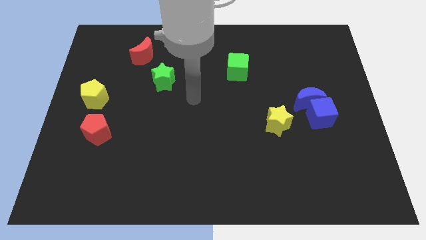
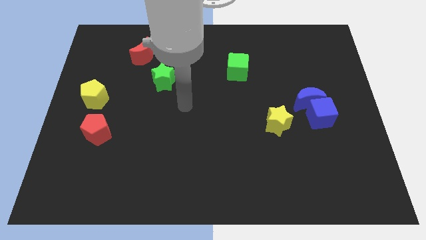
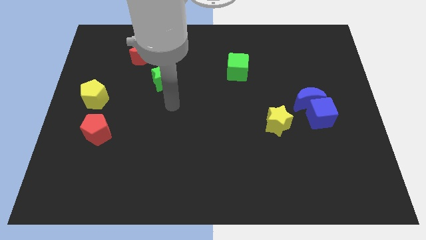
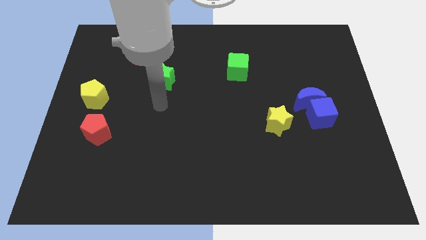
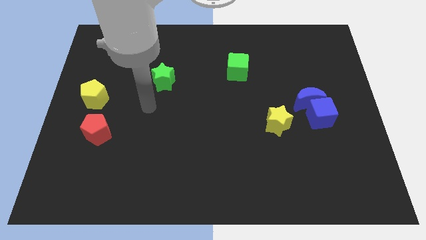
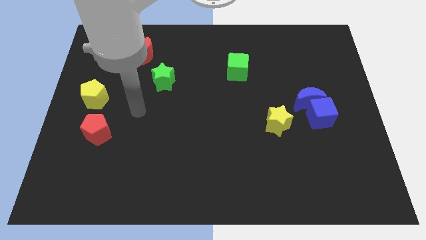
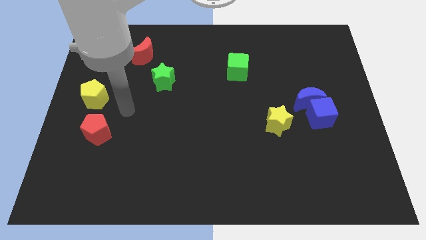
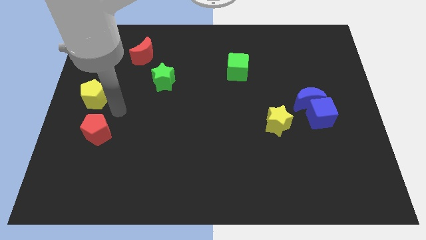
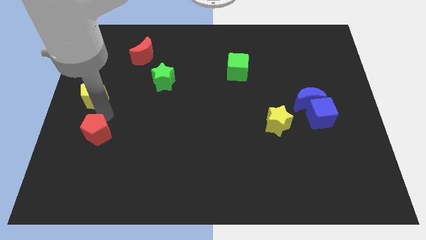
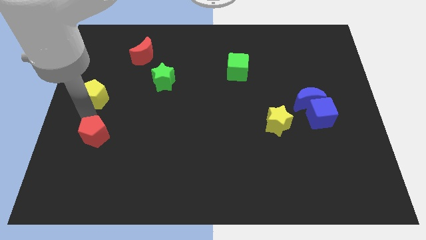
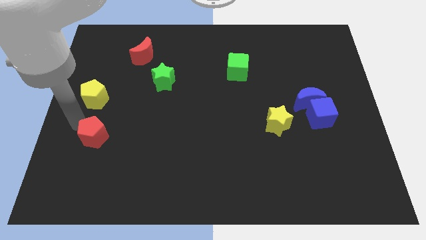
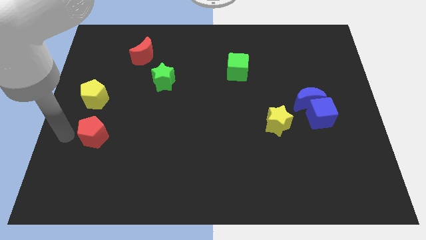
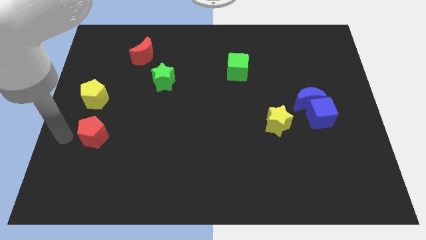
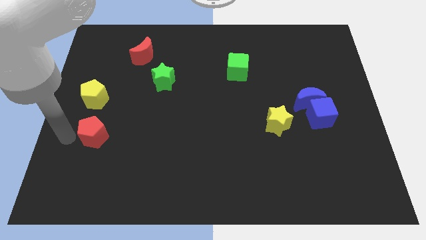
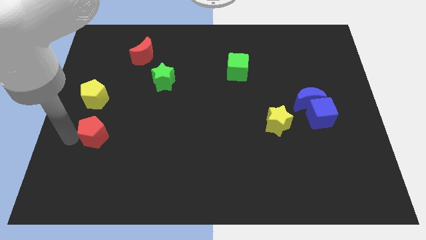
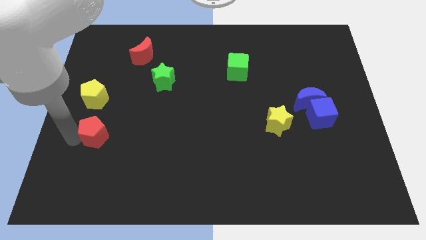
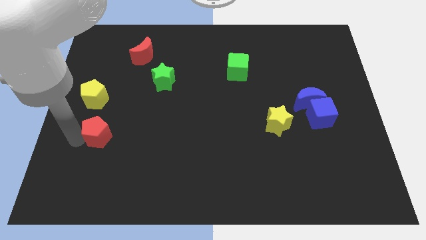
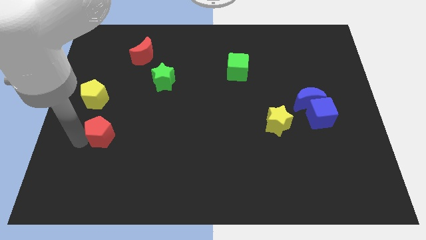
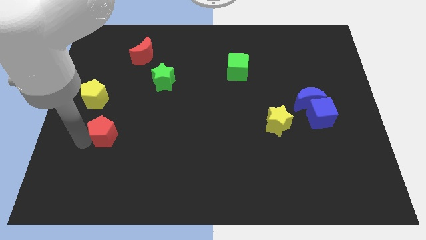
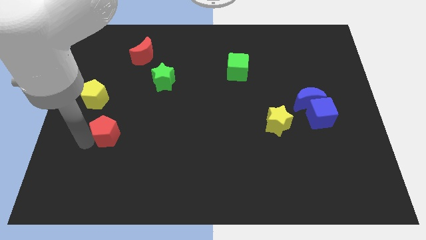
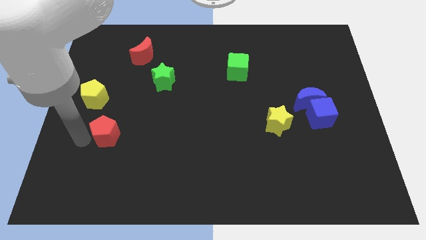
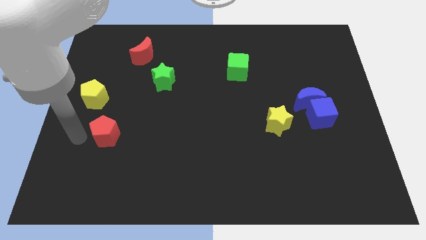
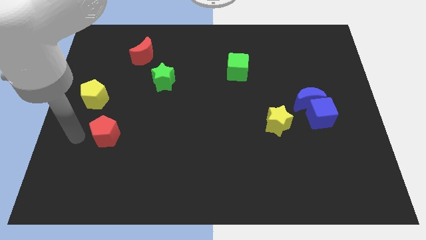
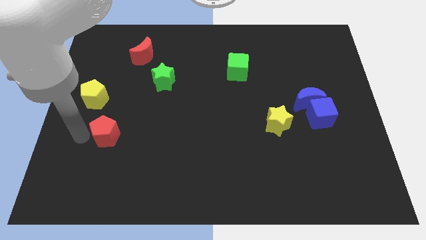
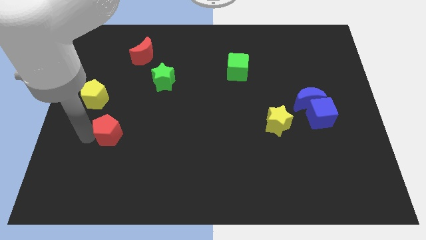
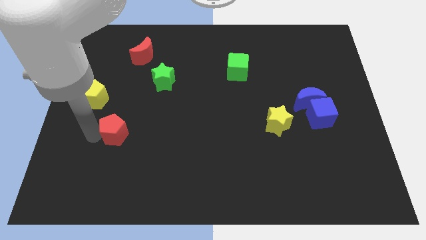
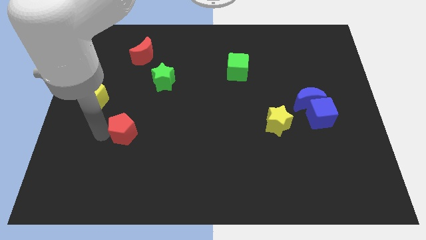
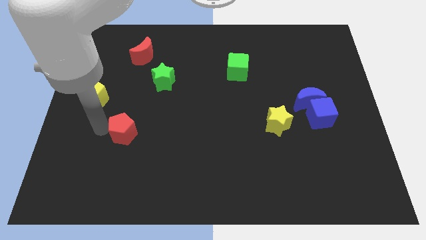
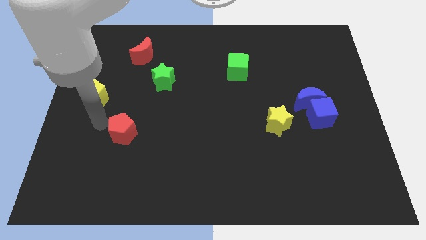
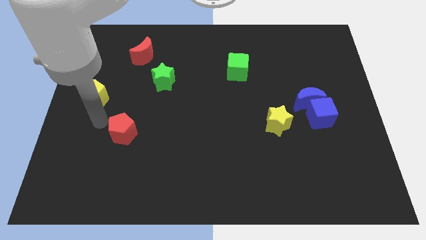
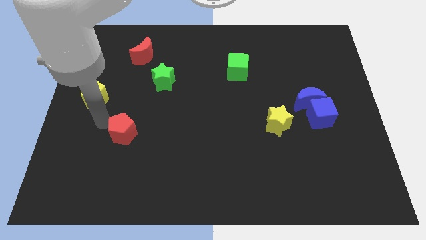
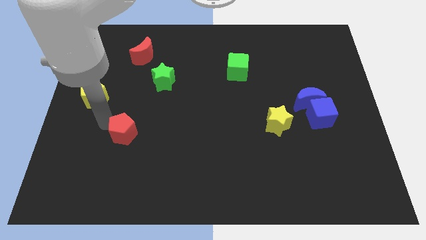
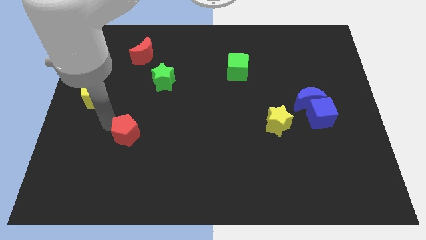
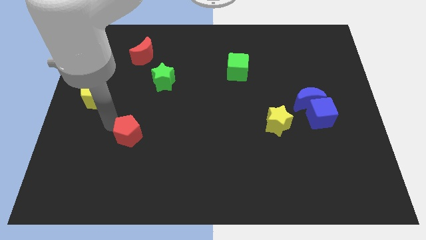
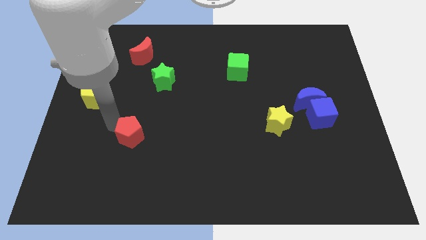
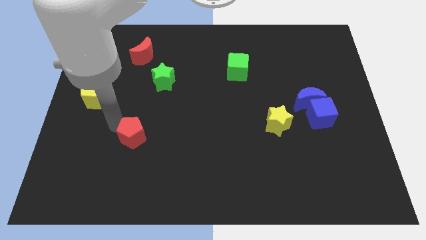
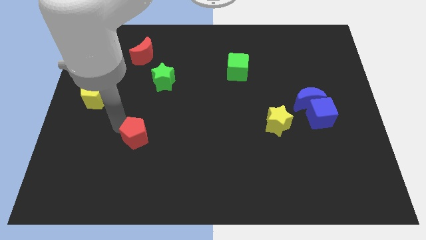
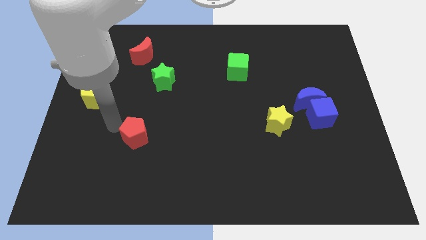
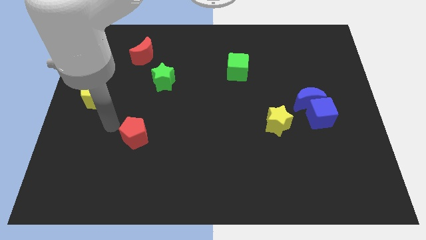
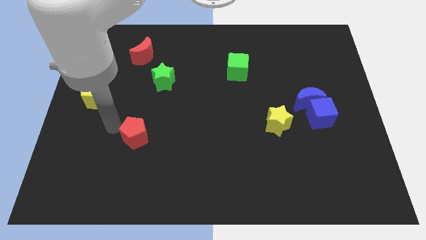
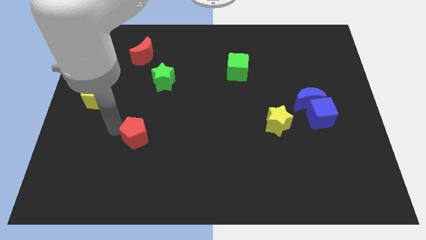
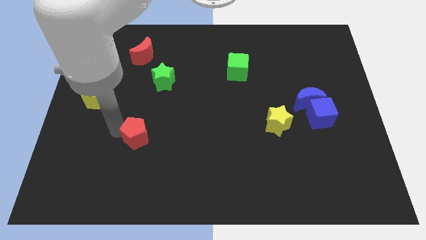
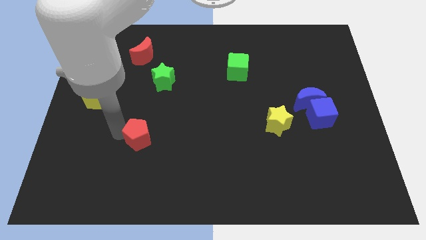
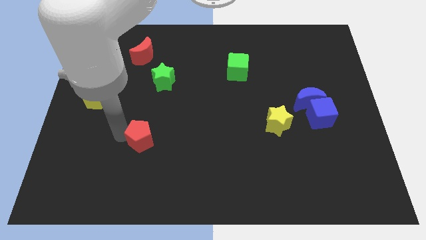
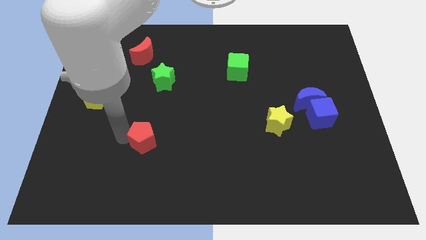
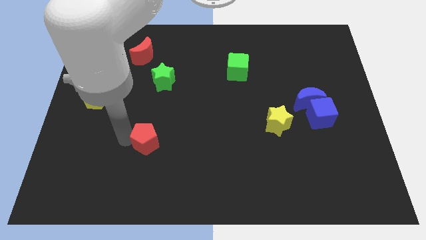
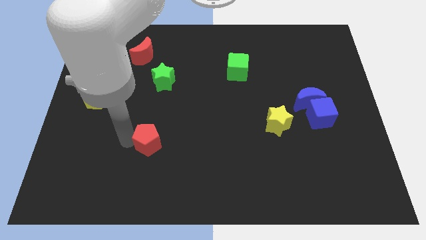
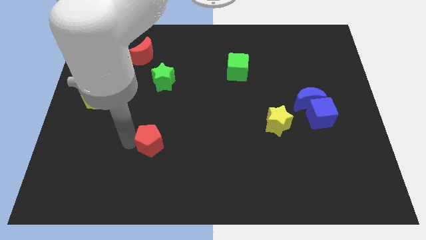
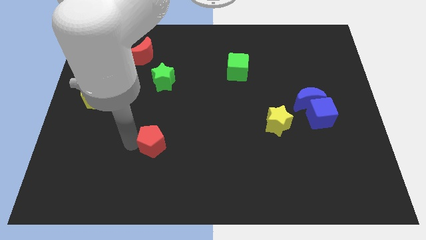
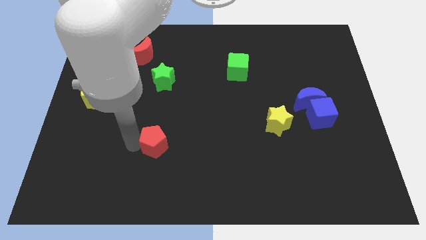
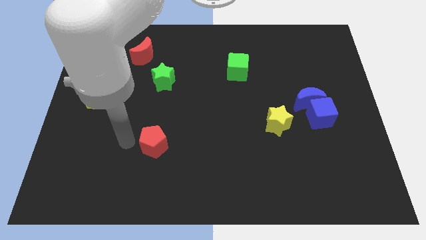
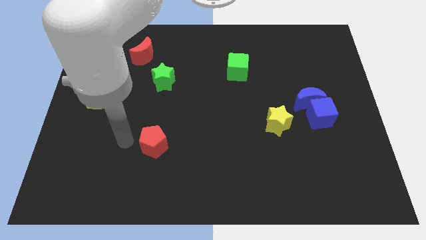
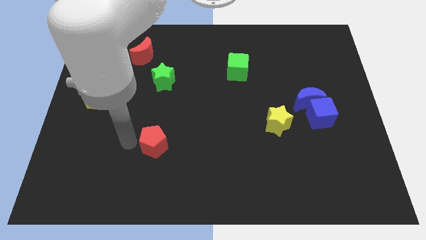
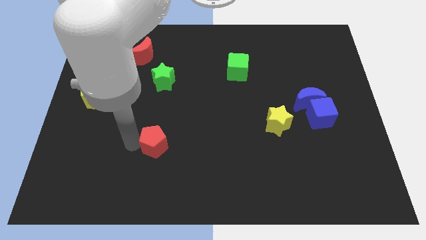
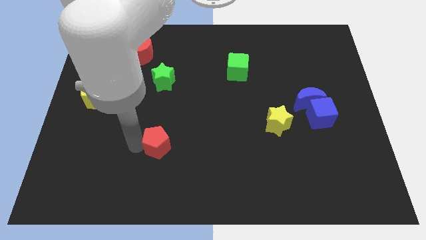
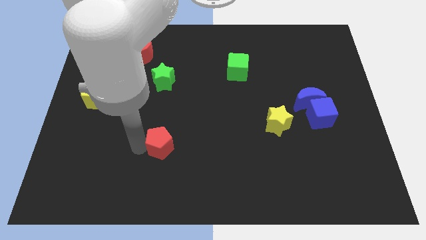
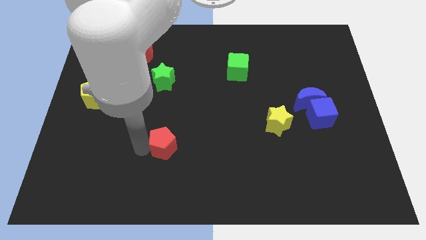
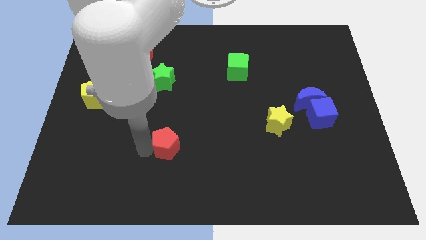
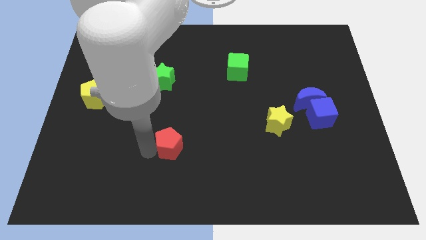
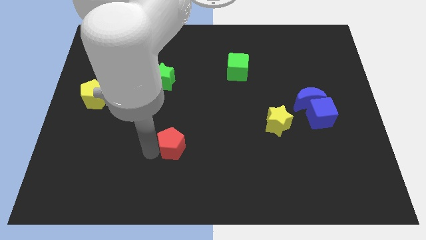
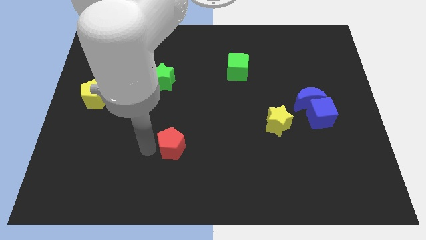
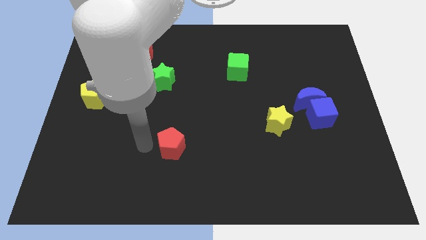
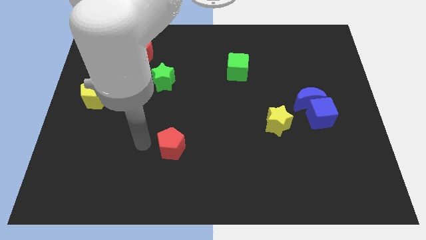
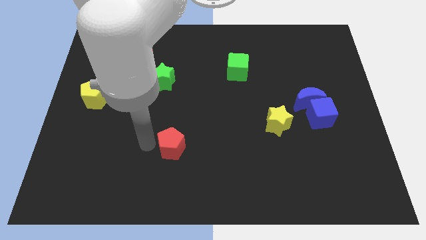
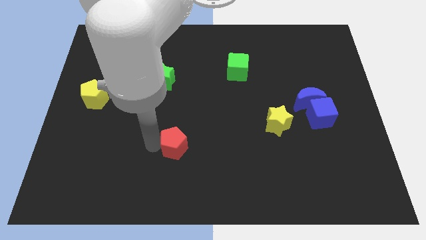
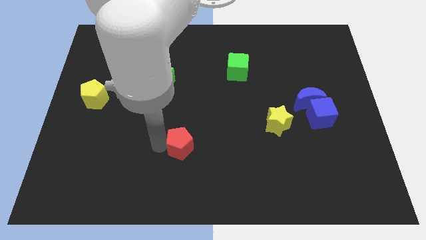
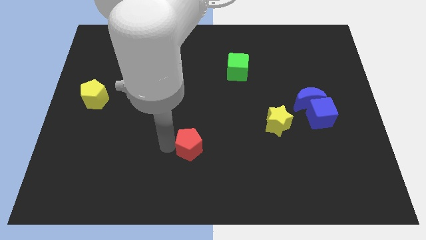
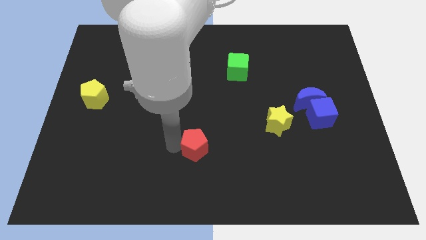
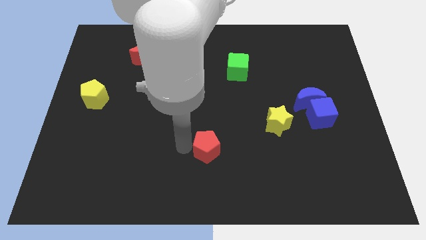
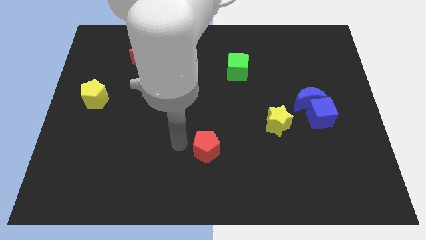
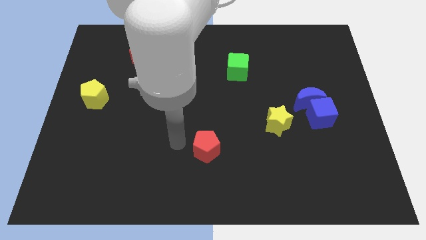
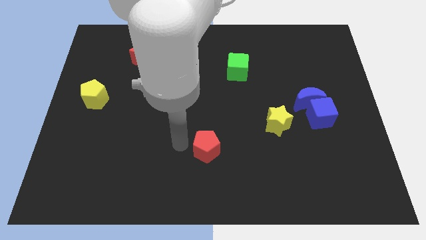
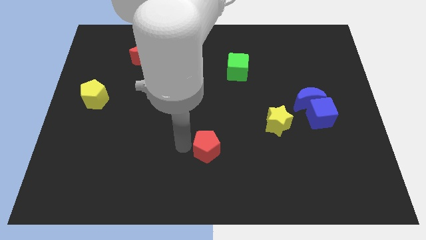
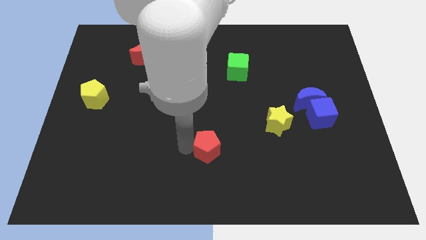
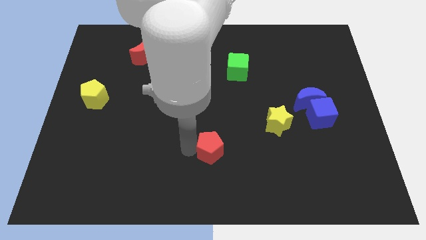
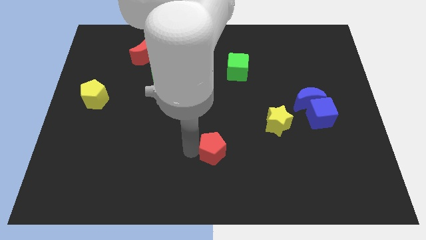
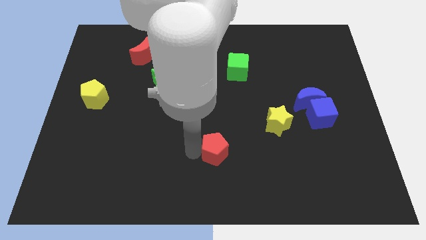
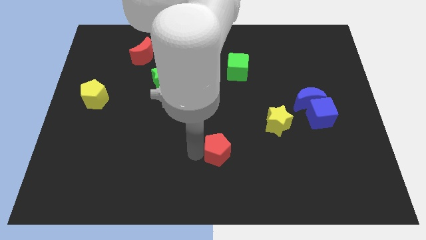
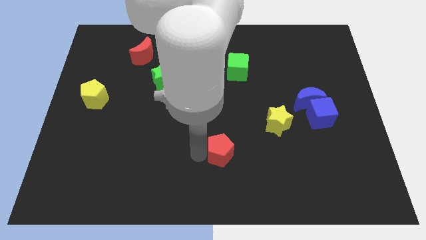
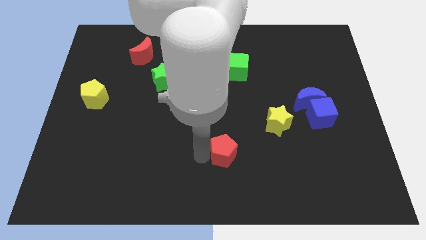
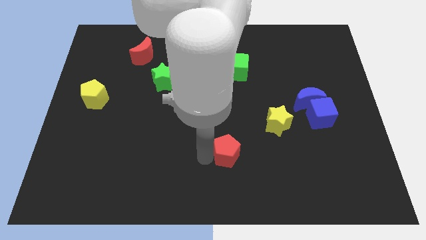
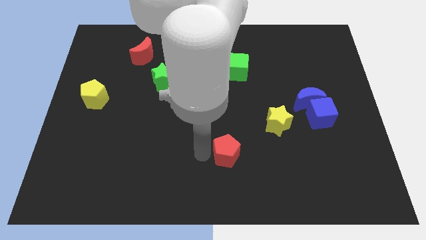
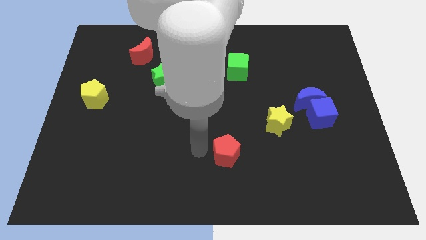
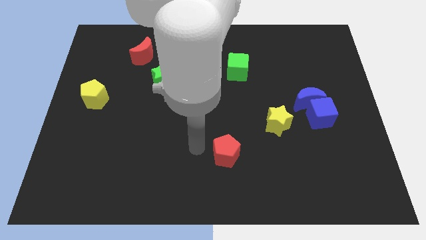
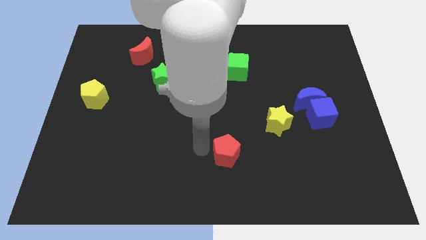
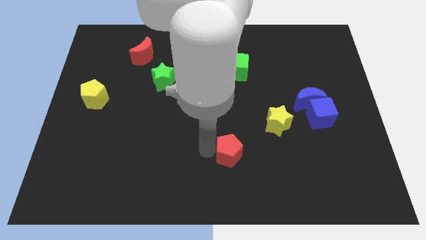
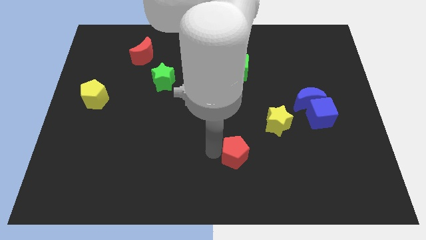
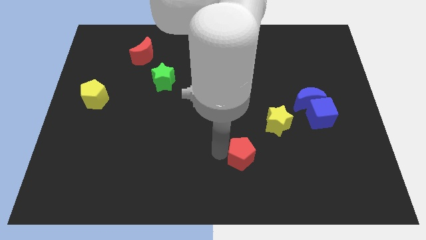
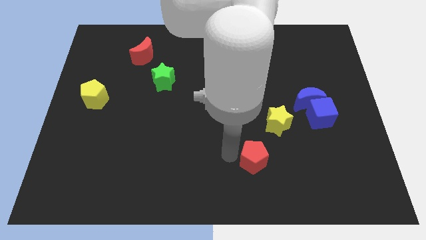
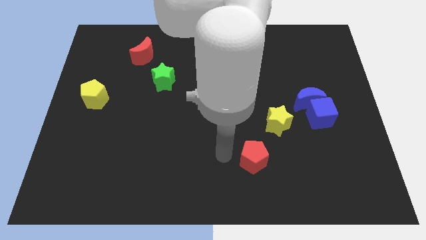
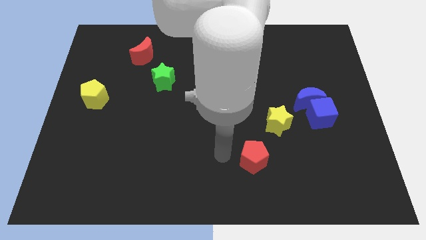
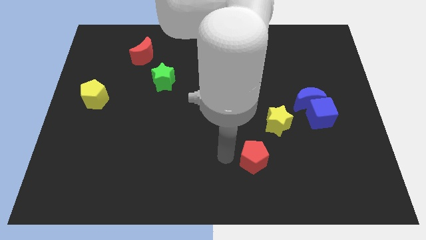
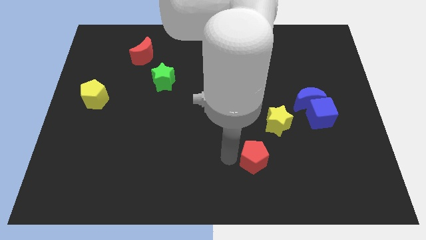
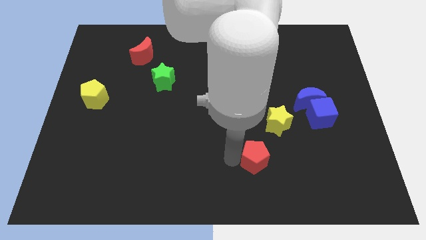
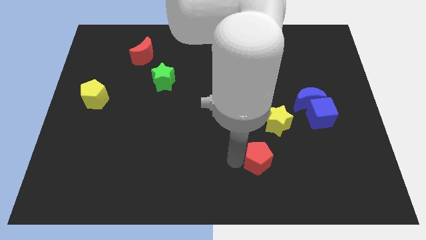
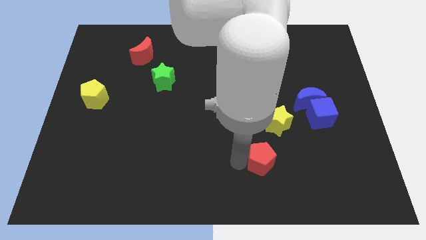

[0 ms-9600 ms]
push the red pentagon below the yellow star
